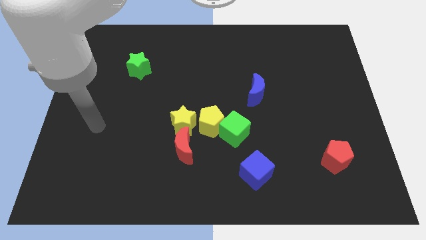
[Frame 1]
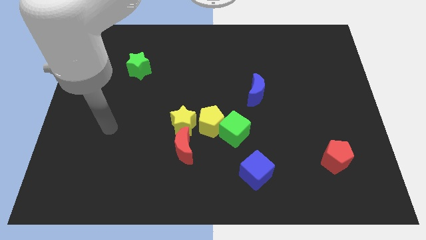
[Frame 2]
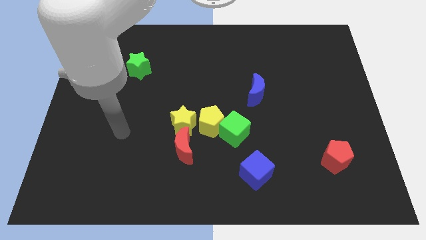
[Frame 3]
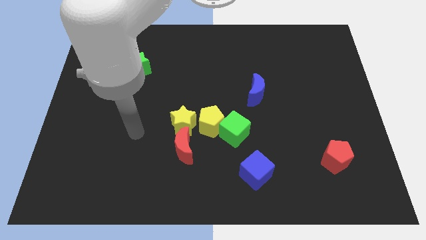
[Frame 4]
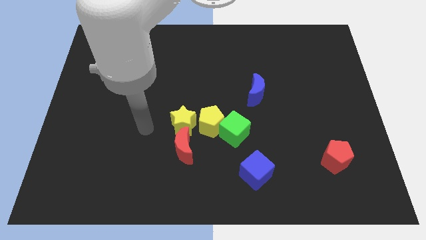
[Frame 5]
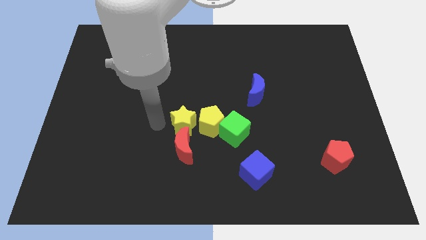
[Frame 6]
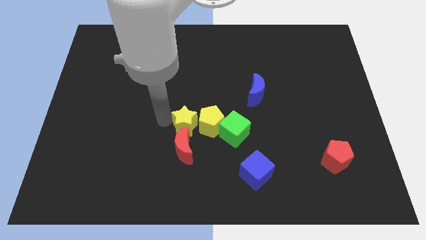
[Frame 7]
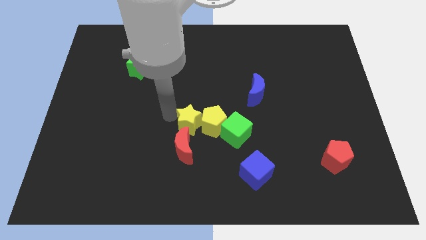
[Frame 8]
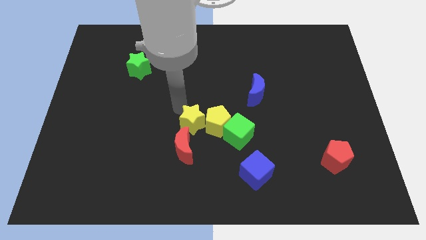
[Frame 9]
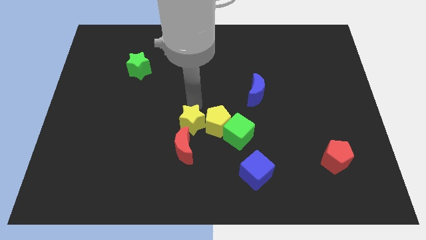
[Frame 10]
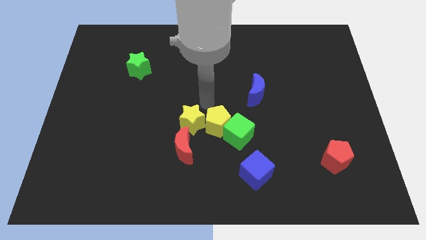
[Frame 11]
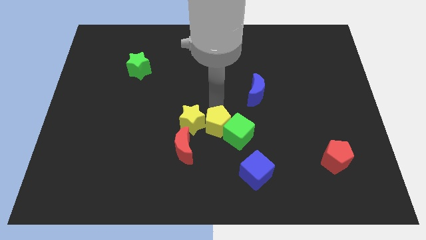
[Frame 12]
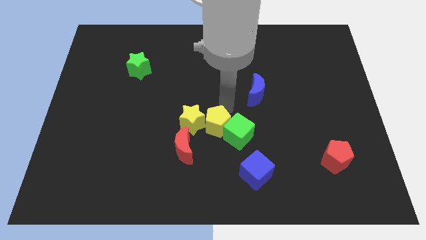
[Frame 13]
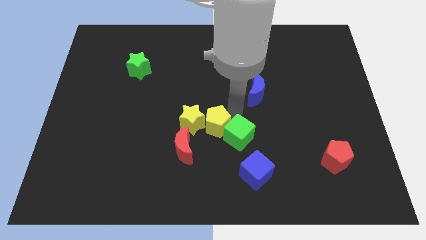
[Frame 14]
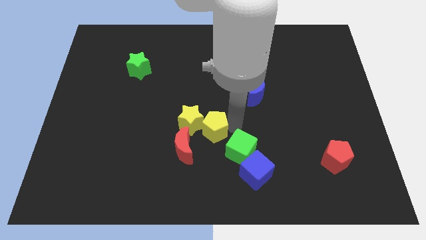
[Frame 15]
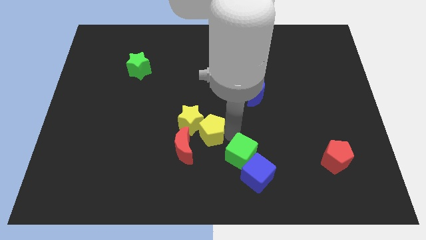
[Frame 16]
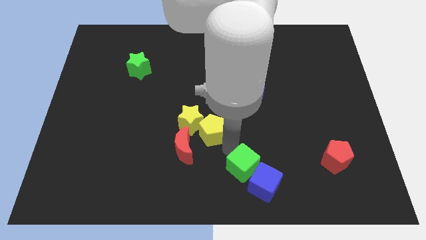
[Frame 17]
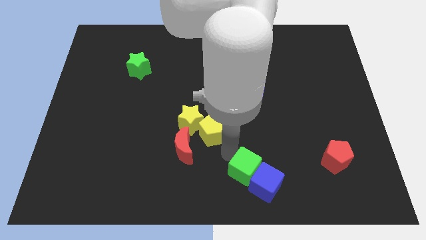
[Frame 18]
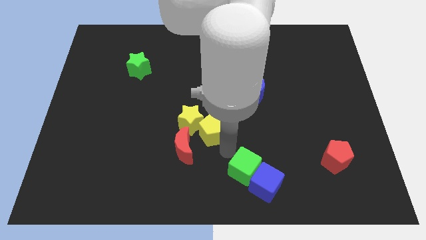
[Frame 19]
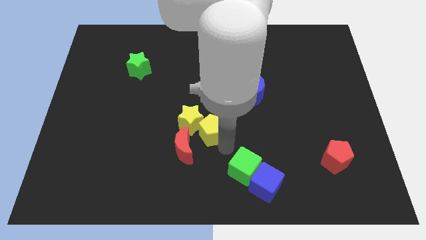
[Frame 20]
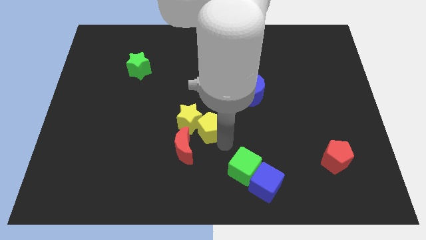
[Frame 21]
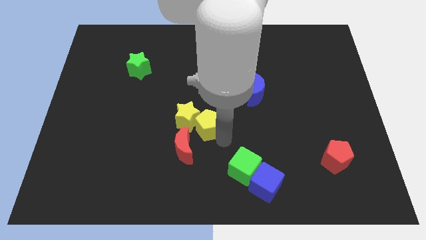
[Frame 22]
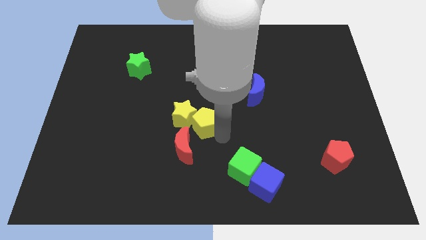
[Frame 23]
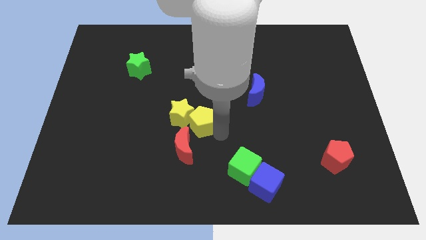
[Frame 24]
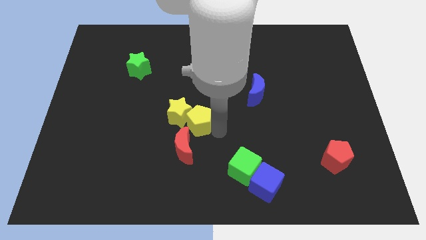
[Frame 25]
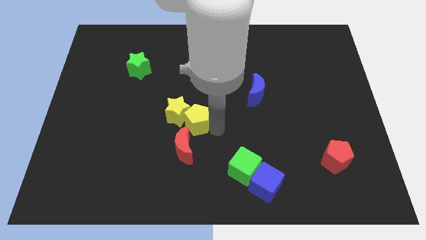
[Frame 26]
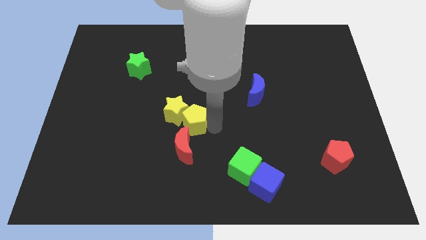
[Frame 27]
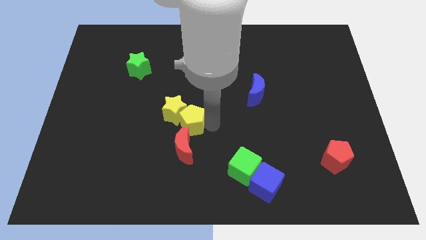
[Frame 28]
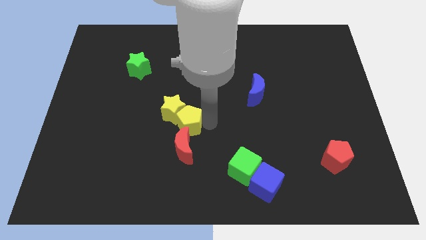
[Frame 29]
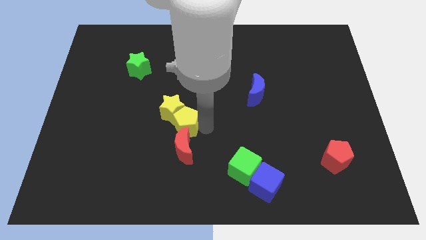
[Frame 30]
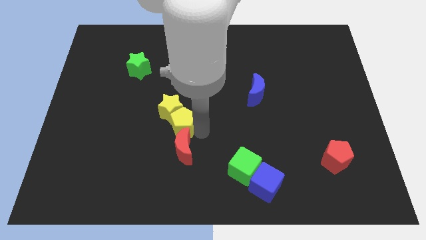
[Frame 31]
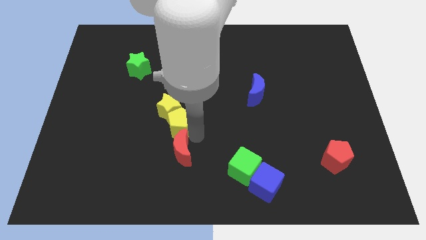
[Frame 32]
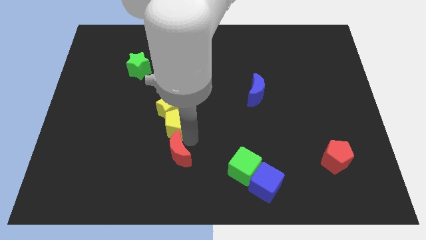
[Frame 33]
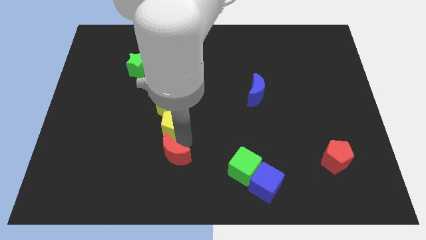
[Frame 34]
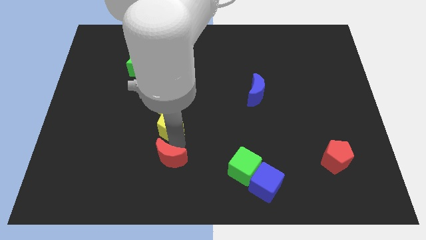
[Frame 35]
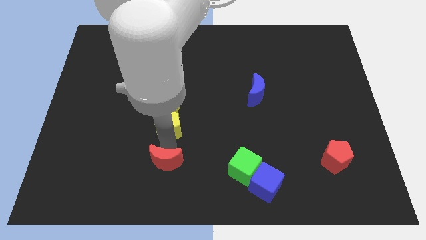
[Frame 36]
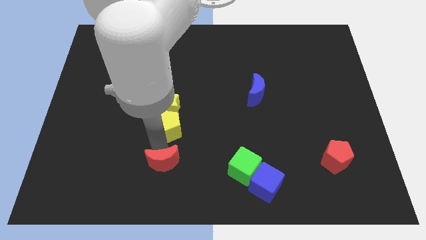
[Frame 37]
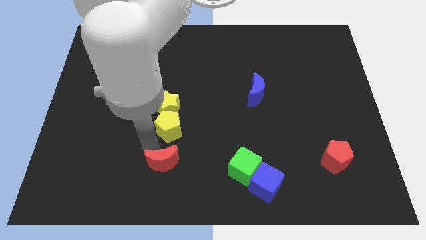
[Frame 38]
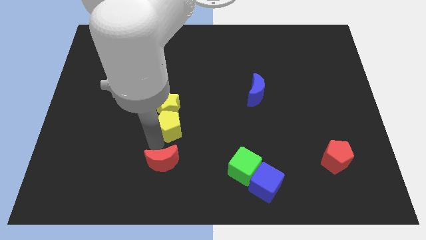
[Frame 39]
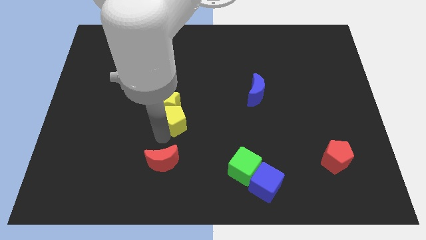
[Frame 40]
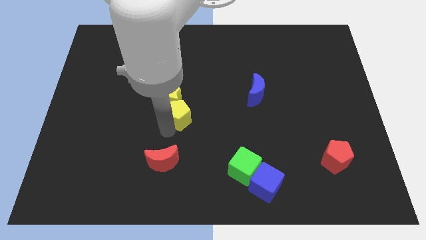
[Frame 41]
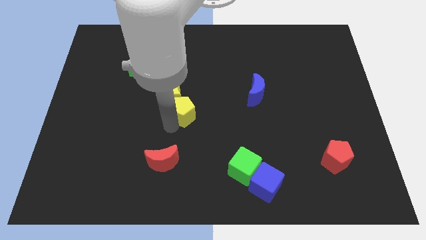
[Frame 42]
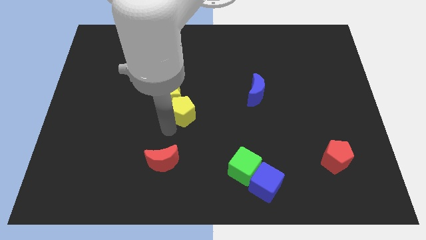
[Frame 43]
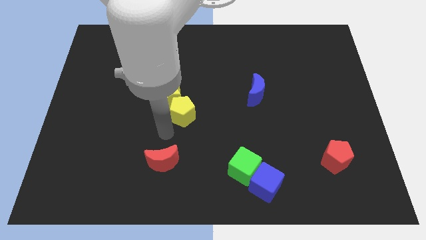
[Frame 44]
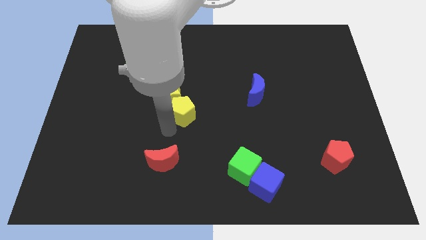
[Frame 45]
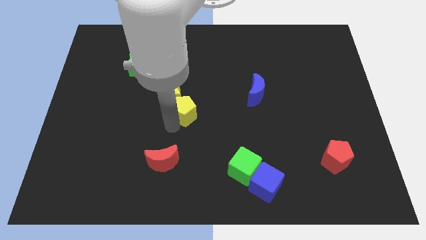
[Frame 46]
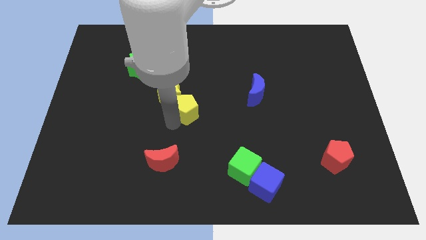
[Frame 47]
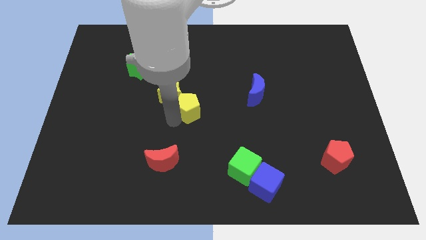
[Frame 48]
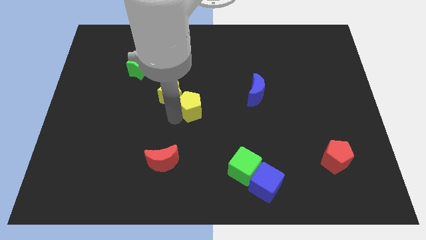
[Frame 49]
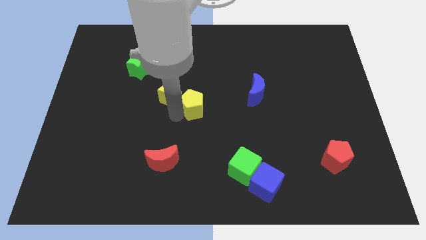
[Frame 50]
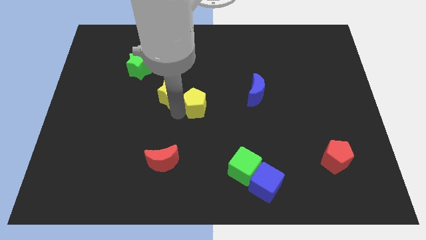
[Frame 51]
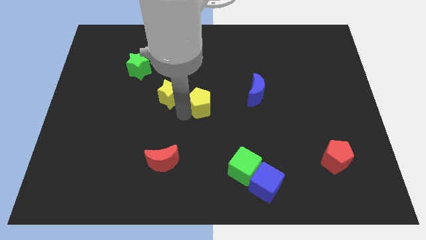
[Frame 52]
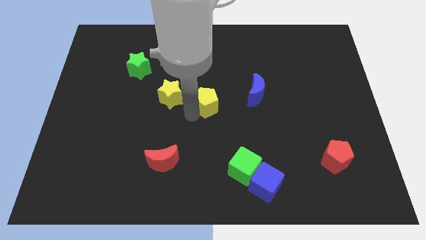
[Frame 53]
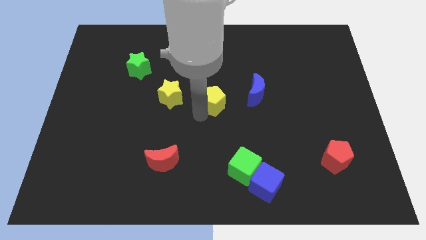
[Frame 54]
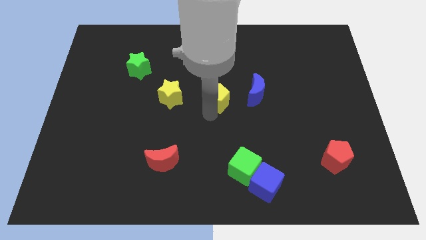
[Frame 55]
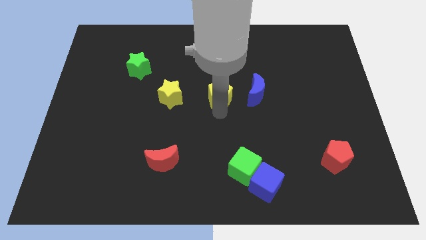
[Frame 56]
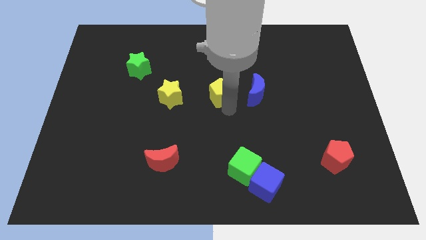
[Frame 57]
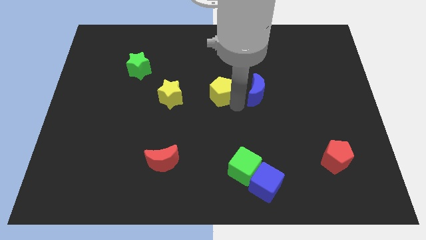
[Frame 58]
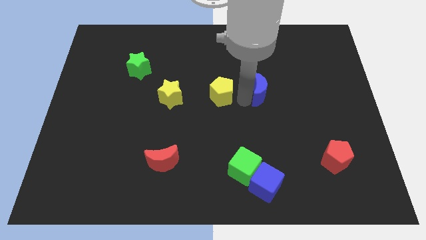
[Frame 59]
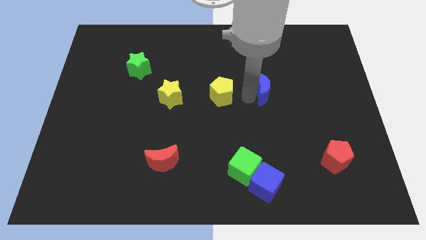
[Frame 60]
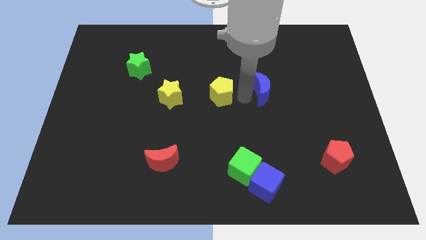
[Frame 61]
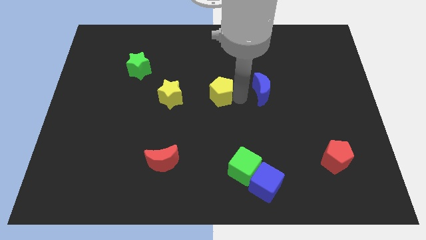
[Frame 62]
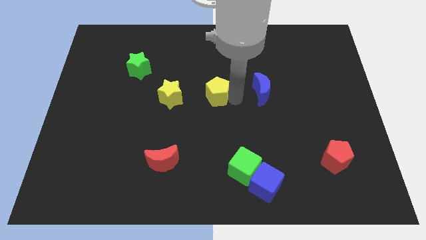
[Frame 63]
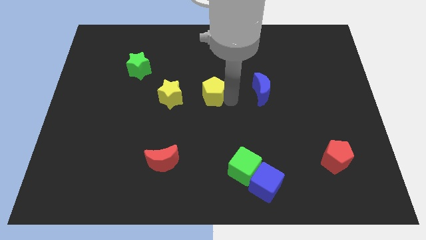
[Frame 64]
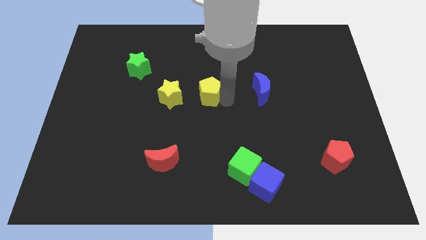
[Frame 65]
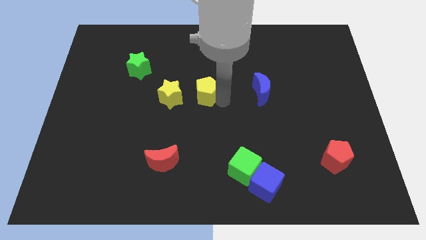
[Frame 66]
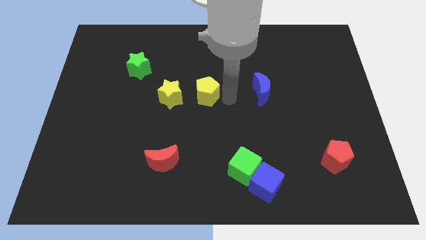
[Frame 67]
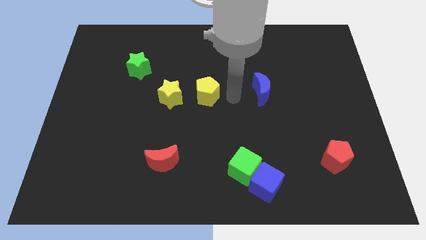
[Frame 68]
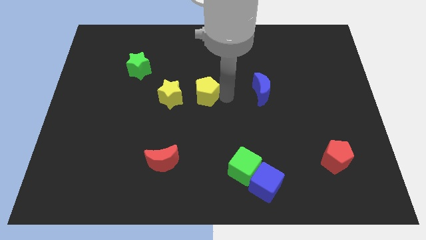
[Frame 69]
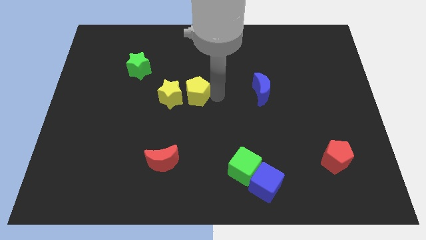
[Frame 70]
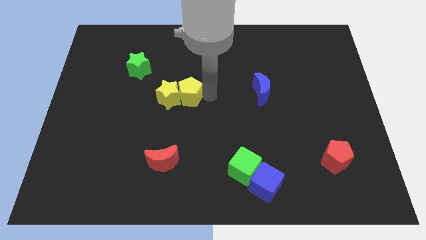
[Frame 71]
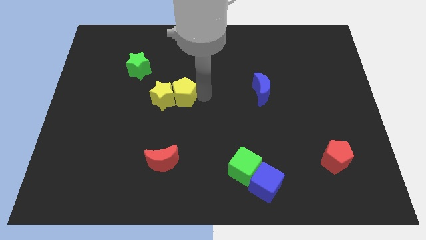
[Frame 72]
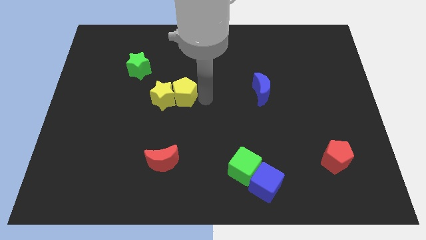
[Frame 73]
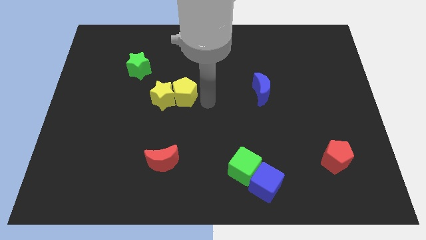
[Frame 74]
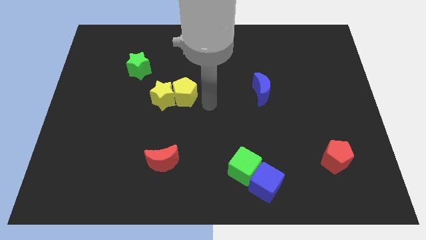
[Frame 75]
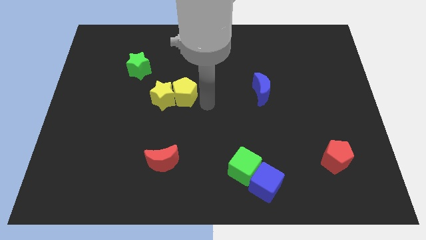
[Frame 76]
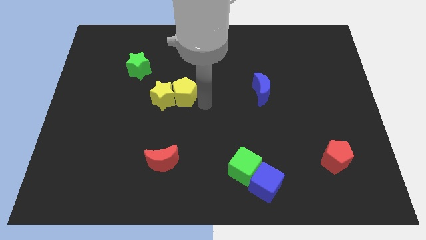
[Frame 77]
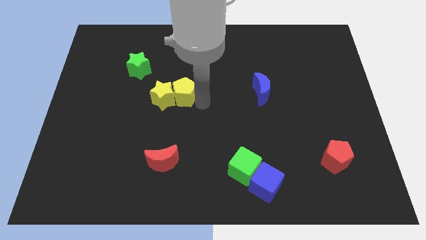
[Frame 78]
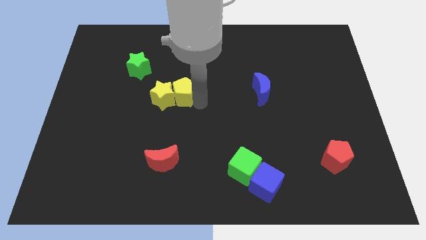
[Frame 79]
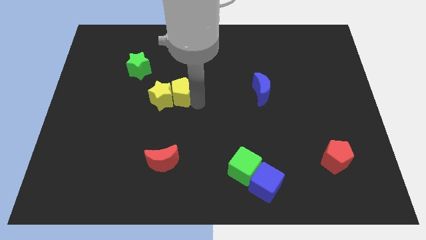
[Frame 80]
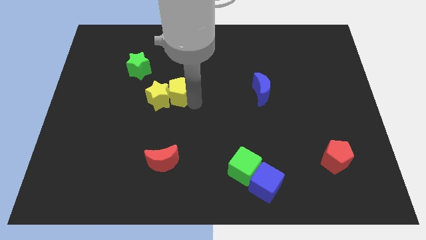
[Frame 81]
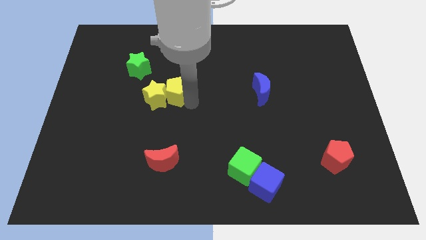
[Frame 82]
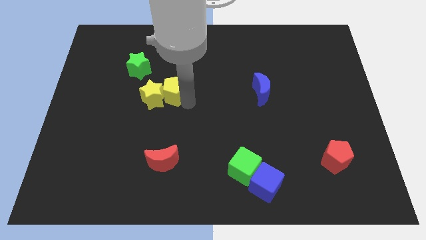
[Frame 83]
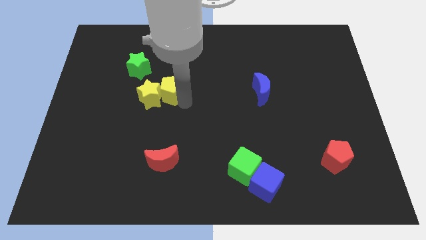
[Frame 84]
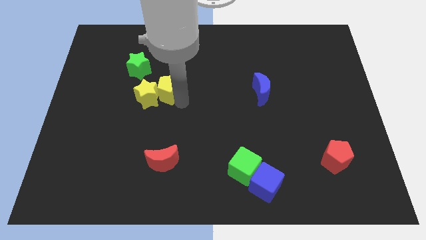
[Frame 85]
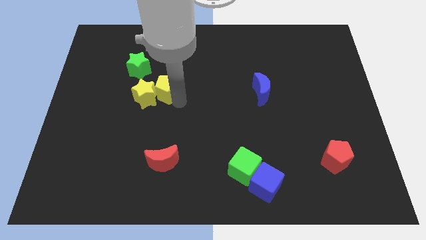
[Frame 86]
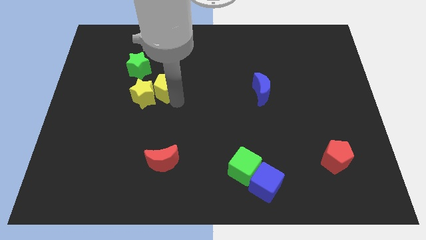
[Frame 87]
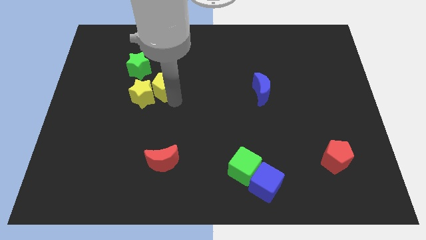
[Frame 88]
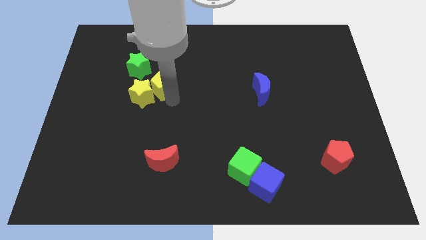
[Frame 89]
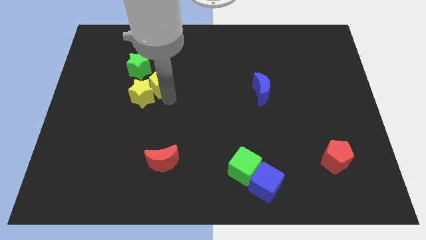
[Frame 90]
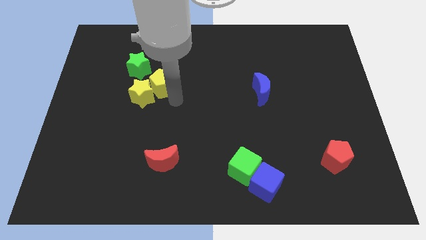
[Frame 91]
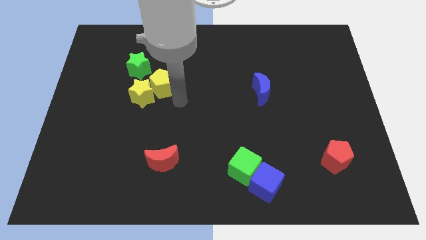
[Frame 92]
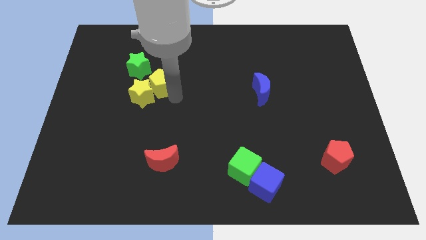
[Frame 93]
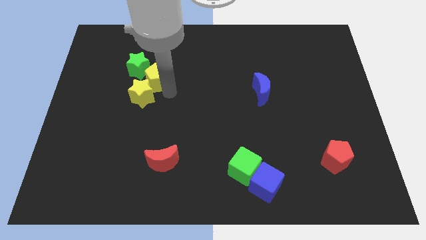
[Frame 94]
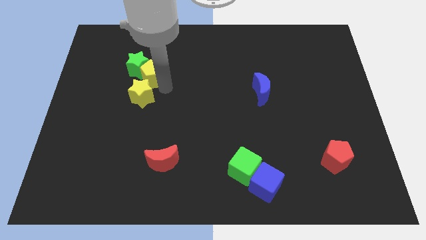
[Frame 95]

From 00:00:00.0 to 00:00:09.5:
slide the yellow pentagon close to the green star
